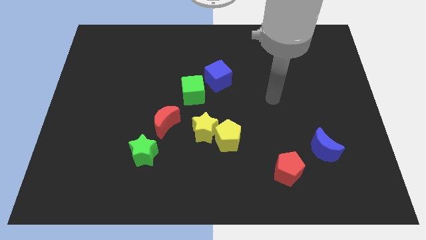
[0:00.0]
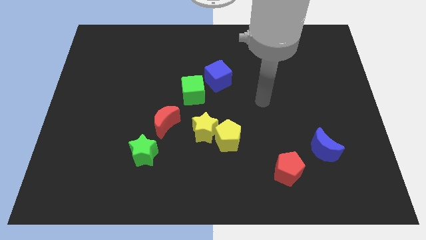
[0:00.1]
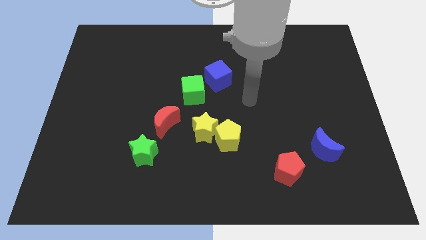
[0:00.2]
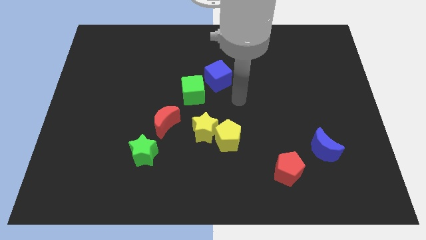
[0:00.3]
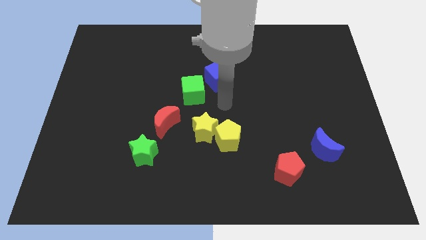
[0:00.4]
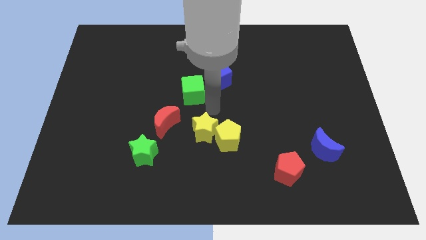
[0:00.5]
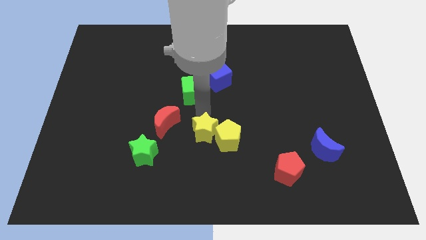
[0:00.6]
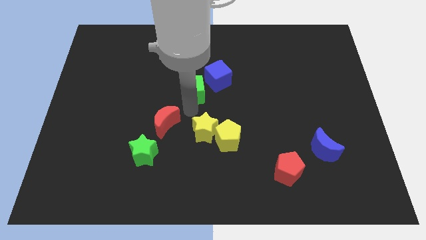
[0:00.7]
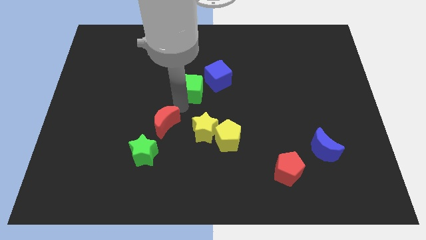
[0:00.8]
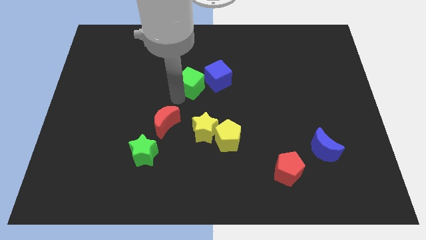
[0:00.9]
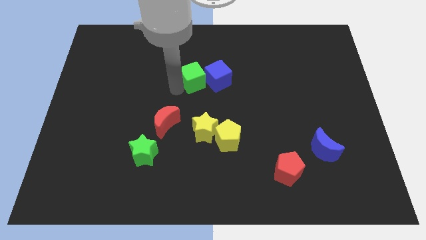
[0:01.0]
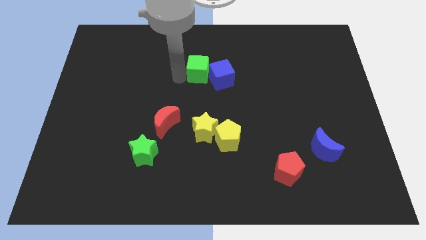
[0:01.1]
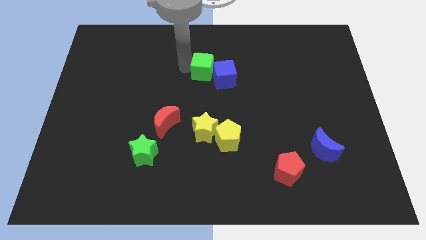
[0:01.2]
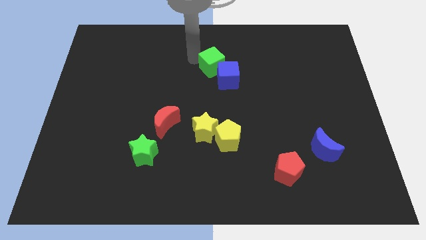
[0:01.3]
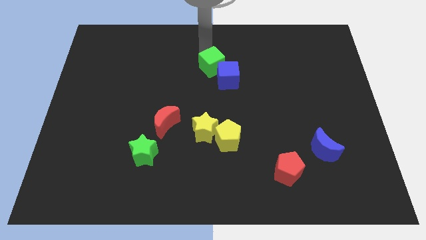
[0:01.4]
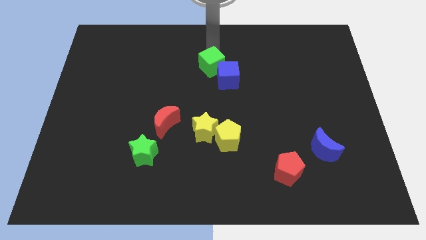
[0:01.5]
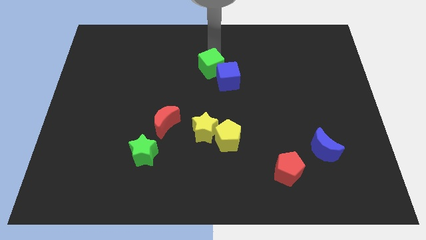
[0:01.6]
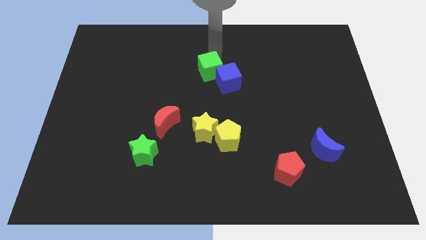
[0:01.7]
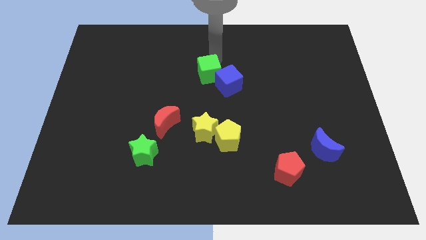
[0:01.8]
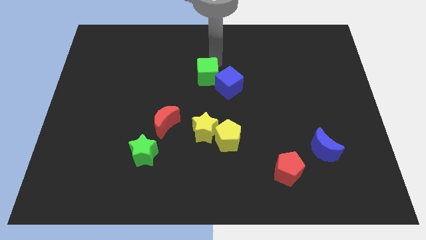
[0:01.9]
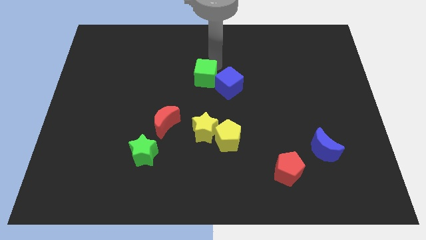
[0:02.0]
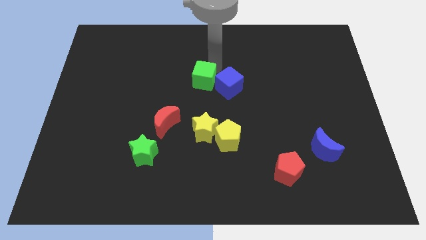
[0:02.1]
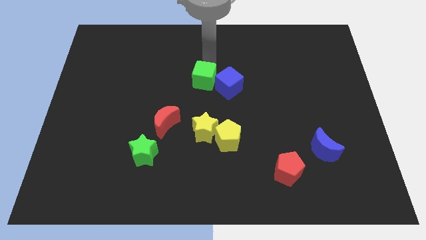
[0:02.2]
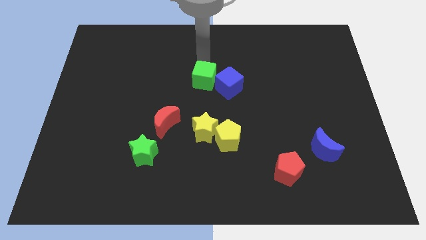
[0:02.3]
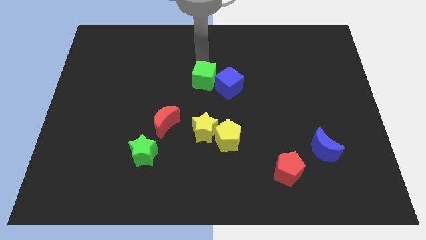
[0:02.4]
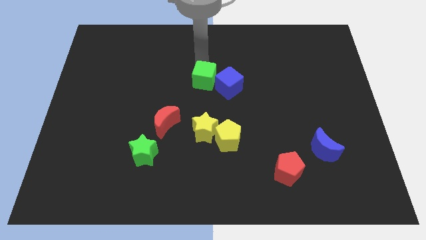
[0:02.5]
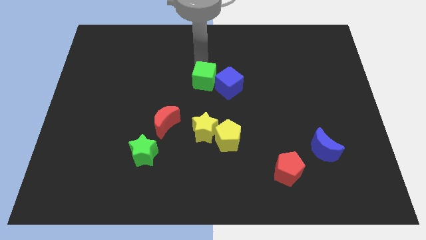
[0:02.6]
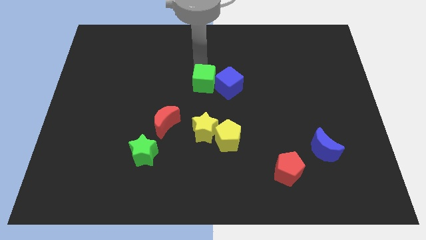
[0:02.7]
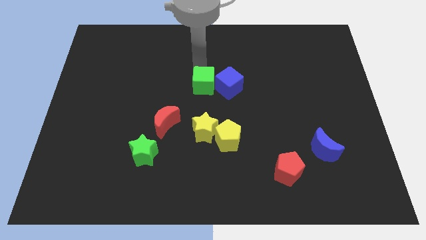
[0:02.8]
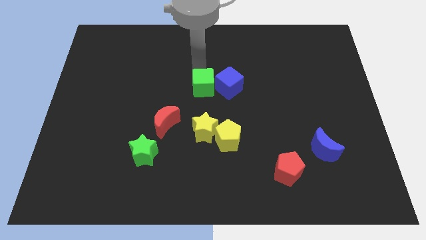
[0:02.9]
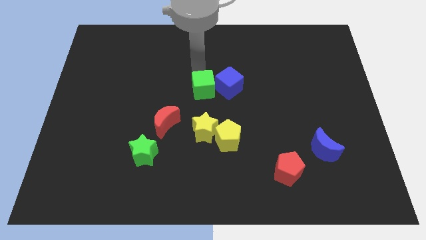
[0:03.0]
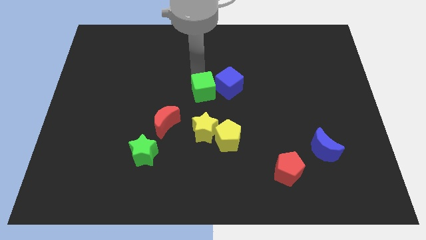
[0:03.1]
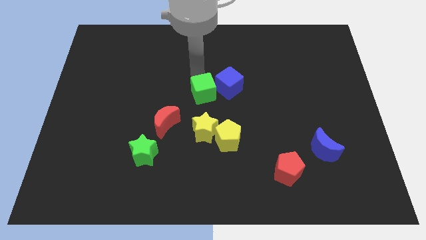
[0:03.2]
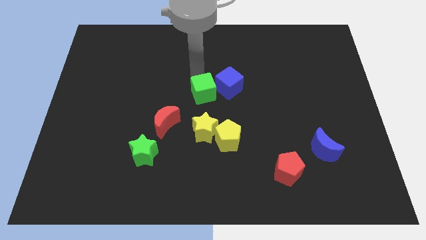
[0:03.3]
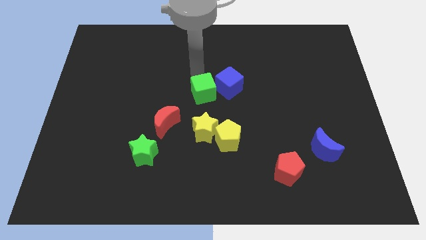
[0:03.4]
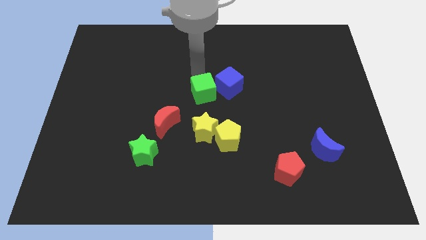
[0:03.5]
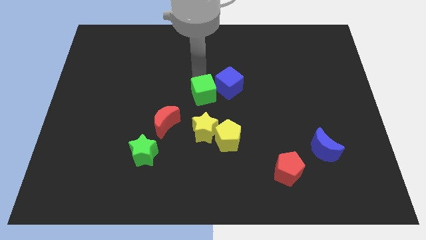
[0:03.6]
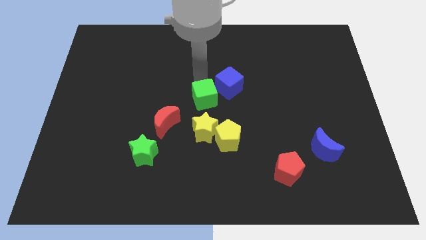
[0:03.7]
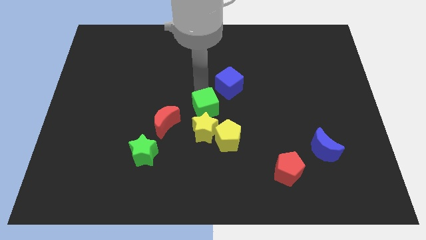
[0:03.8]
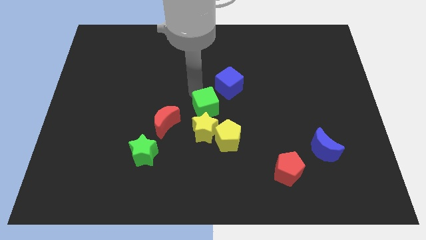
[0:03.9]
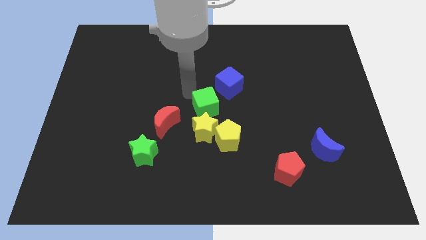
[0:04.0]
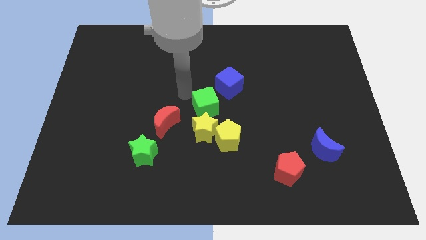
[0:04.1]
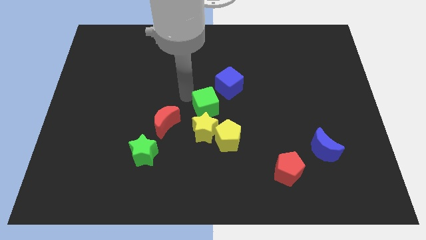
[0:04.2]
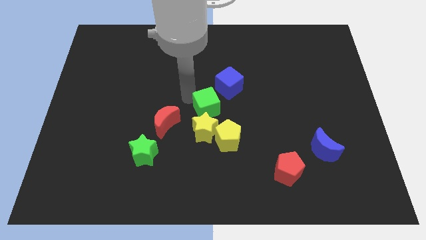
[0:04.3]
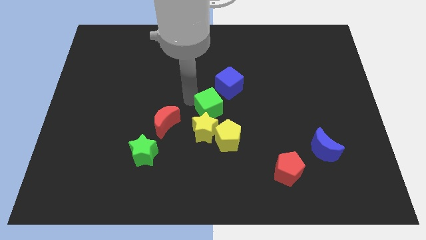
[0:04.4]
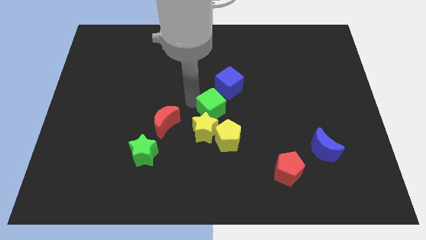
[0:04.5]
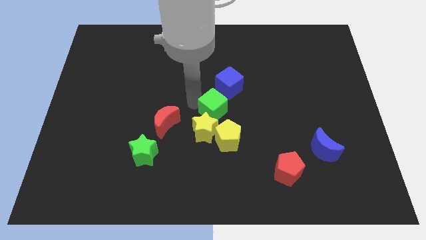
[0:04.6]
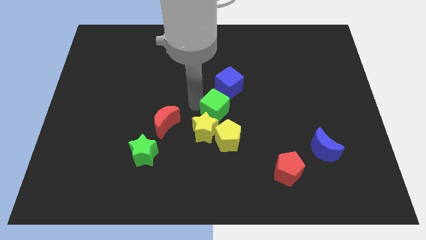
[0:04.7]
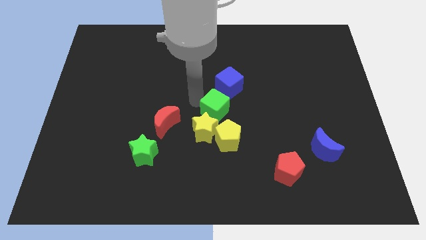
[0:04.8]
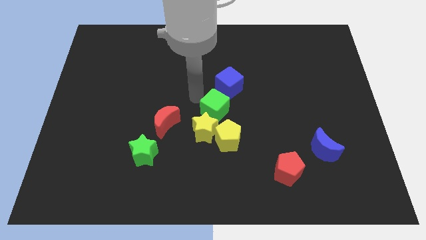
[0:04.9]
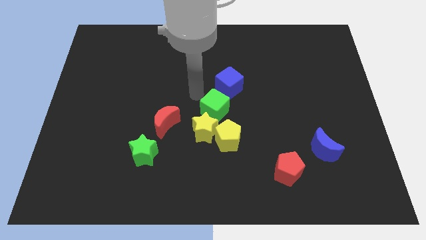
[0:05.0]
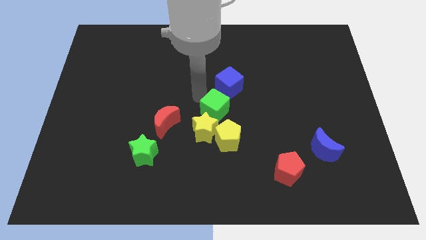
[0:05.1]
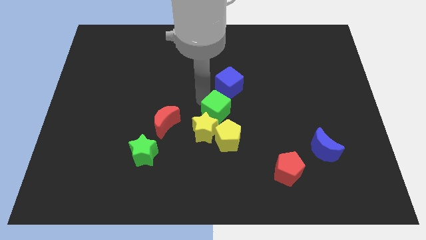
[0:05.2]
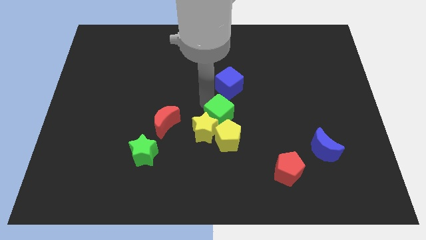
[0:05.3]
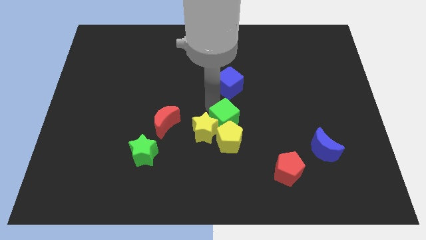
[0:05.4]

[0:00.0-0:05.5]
move the green cube close to the yellow pentagon
